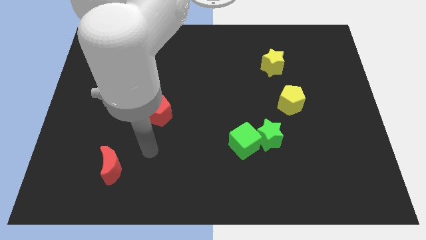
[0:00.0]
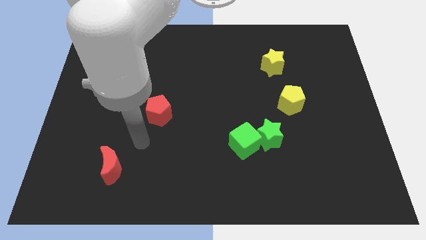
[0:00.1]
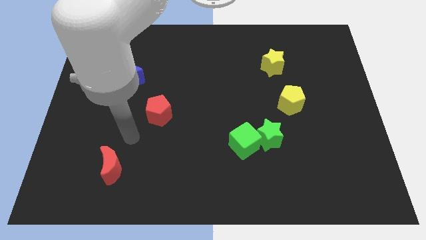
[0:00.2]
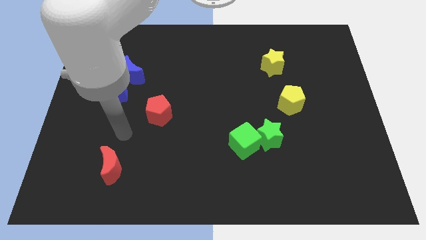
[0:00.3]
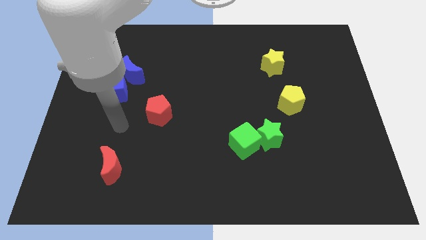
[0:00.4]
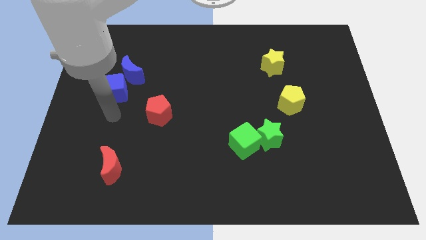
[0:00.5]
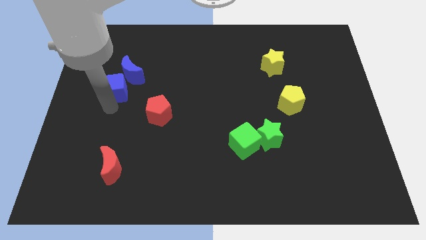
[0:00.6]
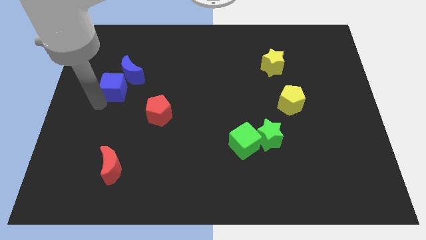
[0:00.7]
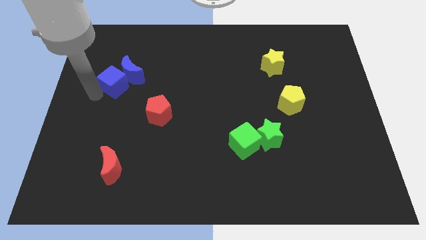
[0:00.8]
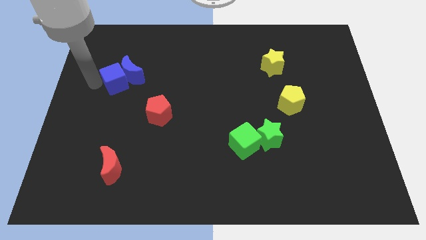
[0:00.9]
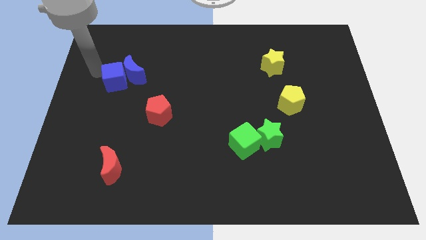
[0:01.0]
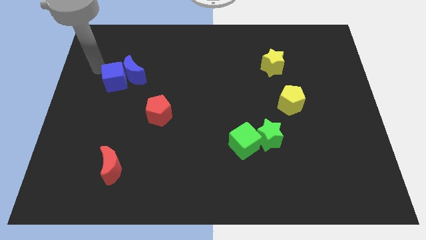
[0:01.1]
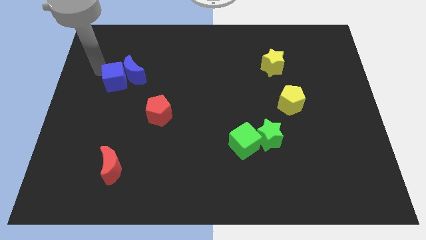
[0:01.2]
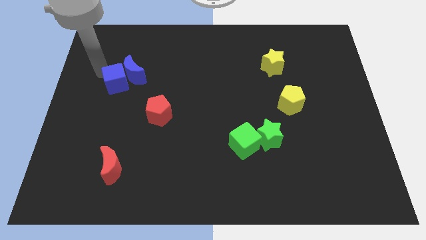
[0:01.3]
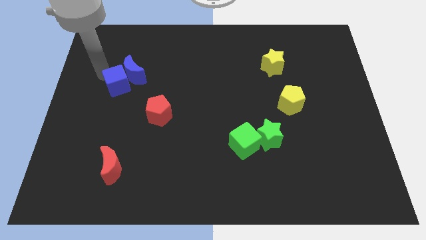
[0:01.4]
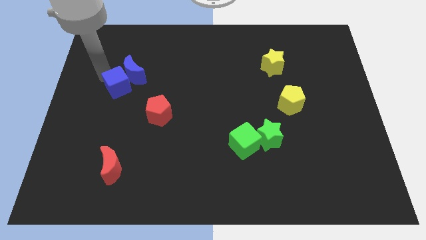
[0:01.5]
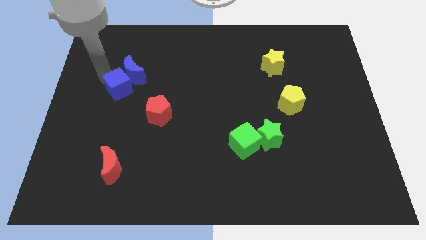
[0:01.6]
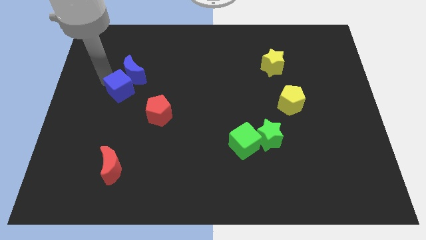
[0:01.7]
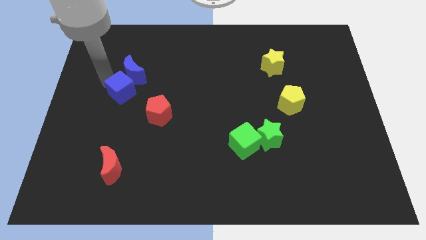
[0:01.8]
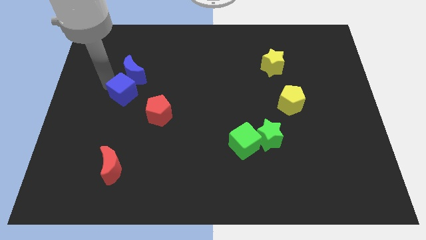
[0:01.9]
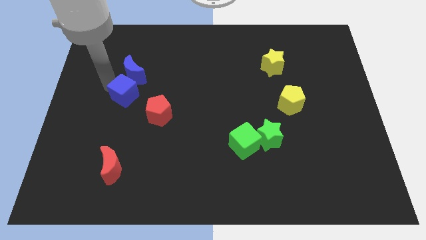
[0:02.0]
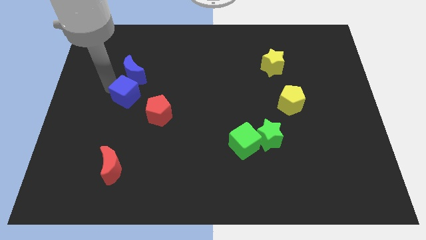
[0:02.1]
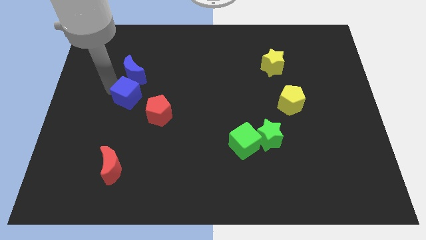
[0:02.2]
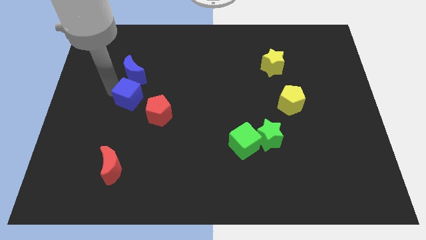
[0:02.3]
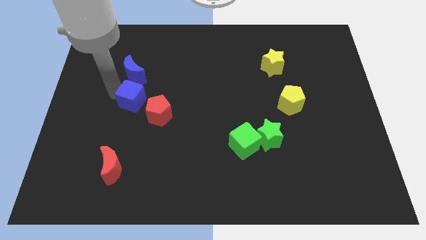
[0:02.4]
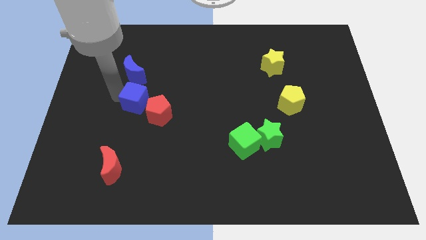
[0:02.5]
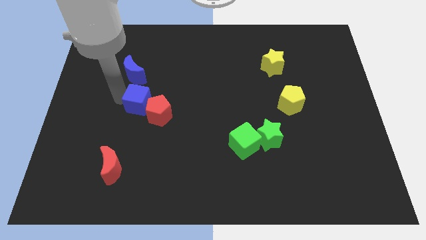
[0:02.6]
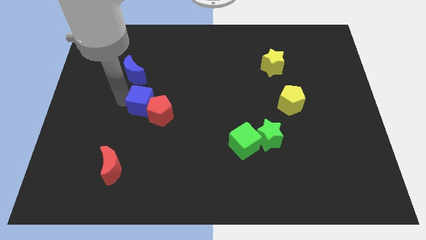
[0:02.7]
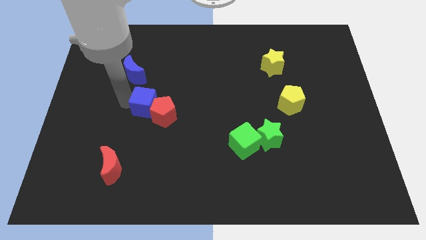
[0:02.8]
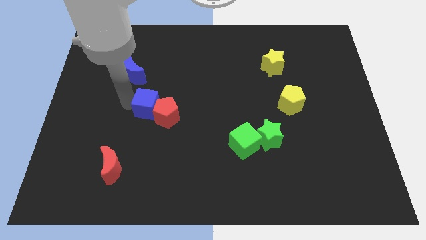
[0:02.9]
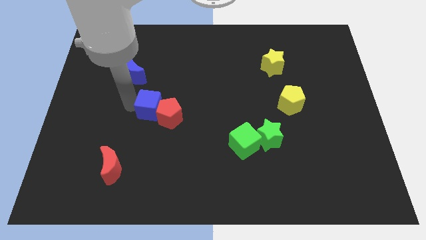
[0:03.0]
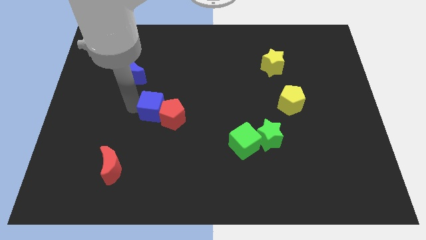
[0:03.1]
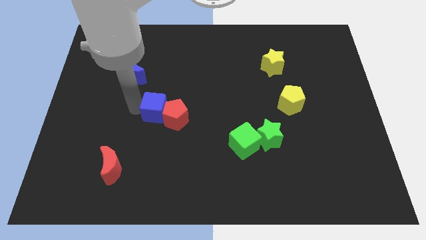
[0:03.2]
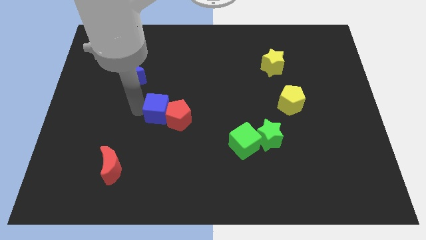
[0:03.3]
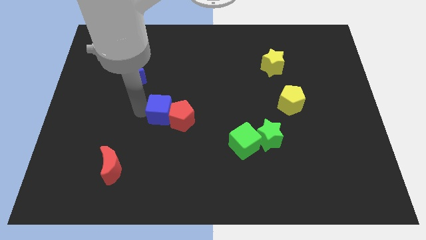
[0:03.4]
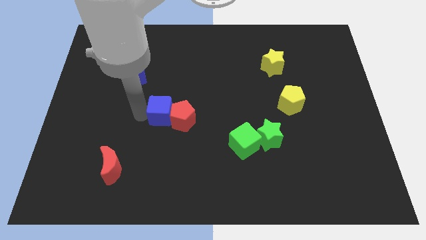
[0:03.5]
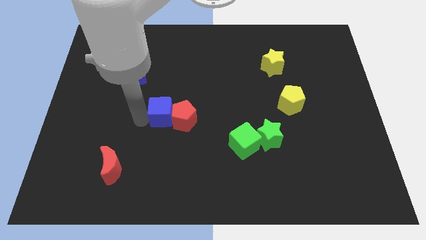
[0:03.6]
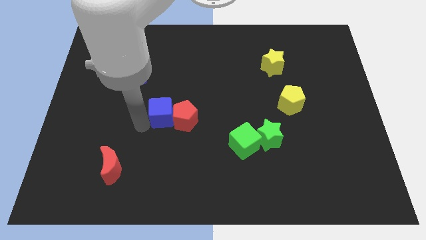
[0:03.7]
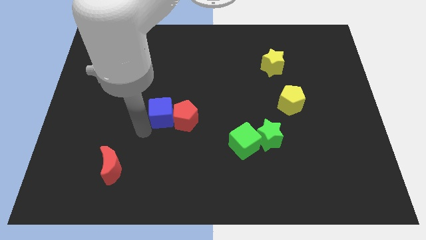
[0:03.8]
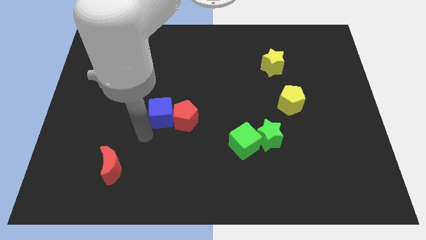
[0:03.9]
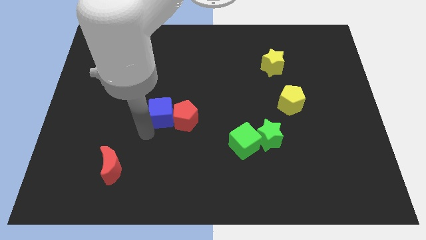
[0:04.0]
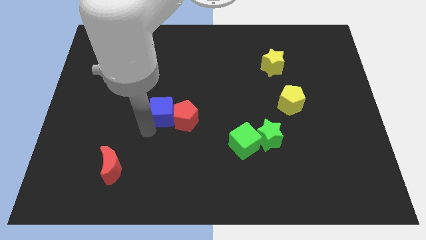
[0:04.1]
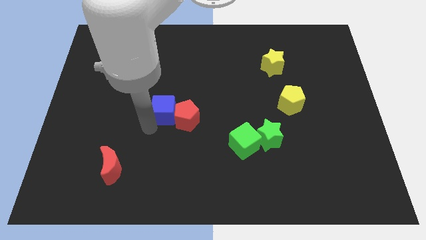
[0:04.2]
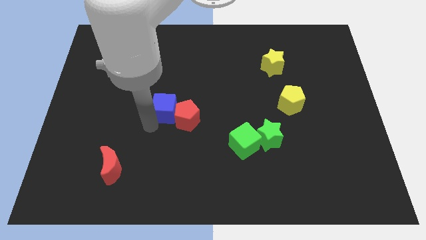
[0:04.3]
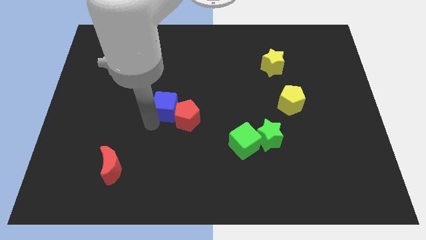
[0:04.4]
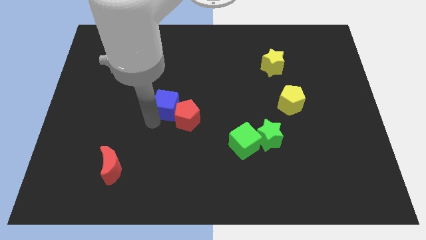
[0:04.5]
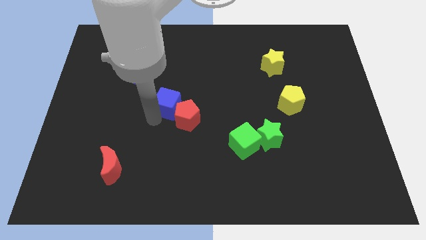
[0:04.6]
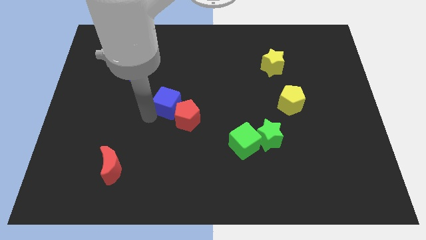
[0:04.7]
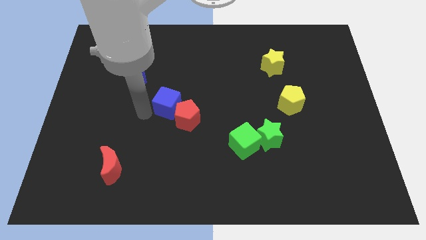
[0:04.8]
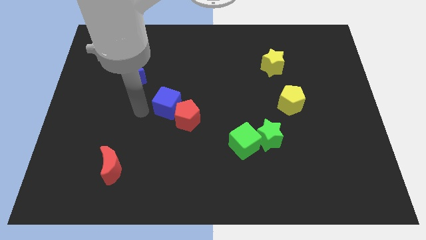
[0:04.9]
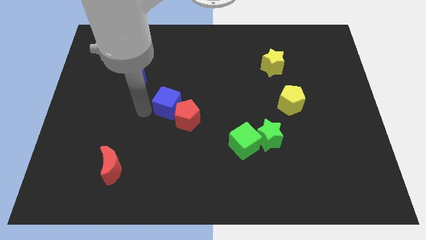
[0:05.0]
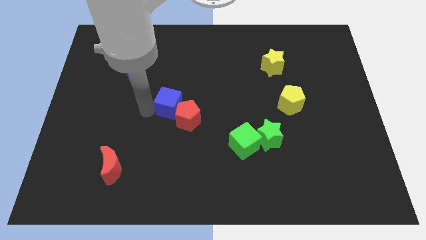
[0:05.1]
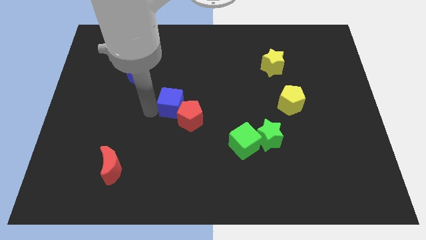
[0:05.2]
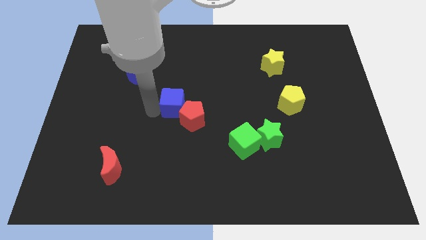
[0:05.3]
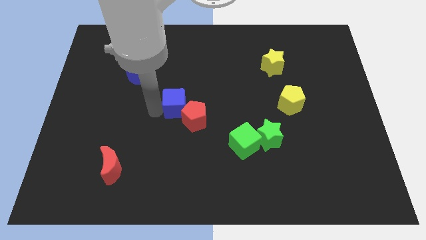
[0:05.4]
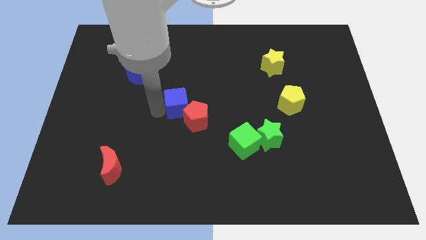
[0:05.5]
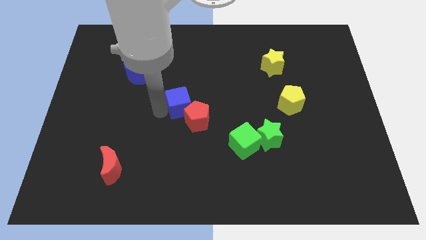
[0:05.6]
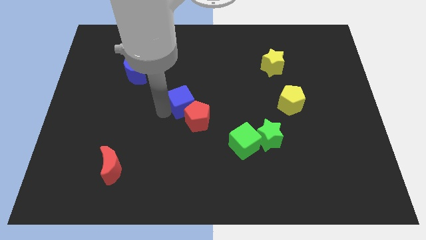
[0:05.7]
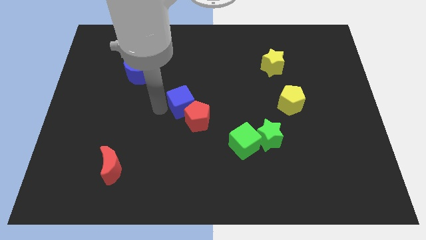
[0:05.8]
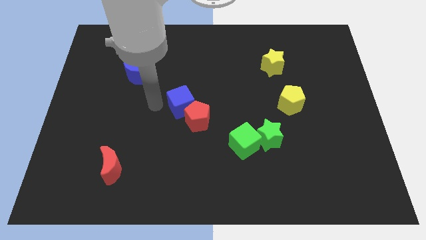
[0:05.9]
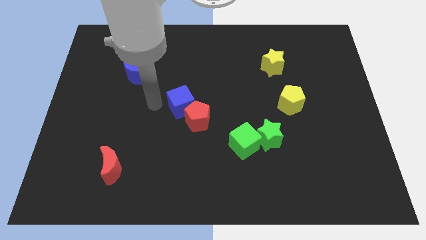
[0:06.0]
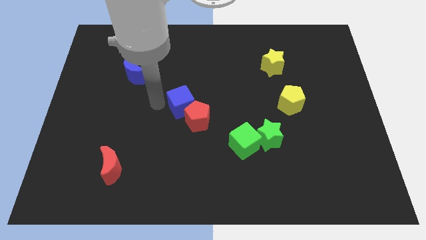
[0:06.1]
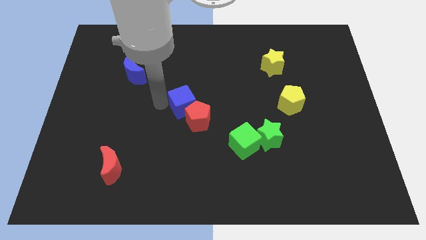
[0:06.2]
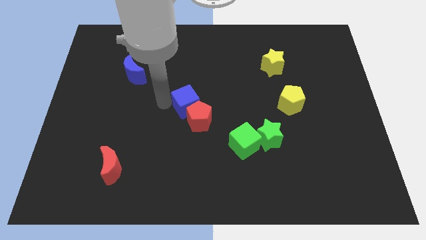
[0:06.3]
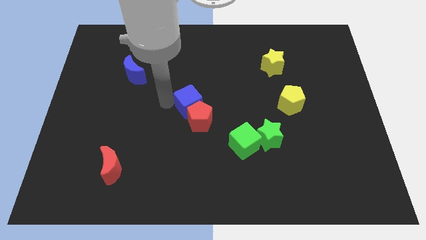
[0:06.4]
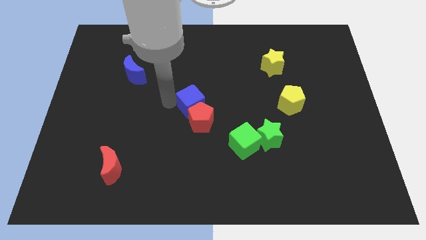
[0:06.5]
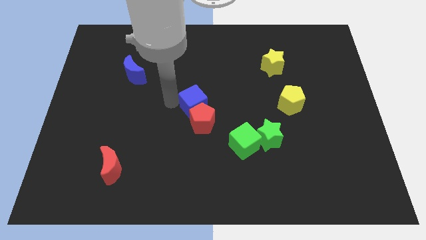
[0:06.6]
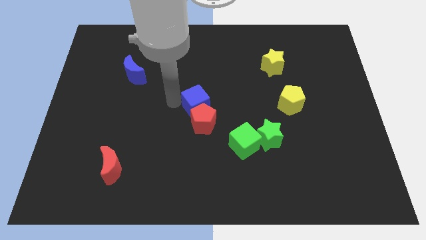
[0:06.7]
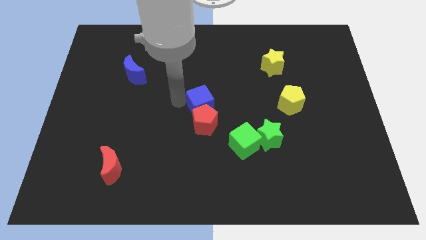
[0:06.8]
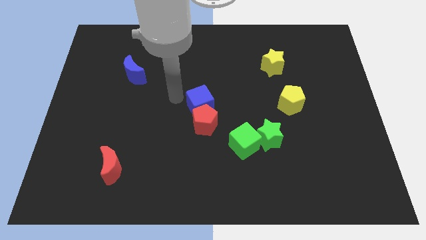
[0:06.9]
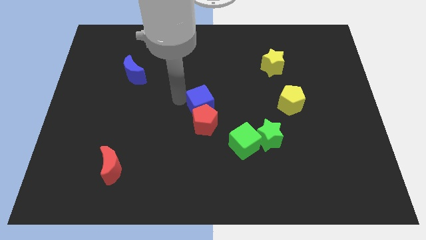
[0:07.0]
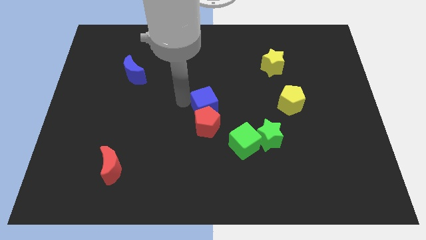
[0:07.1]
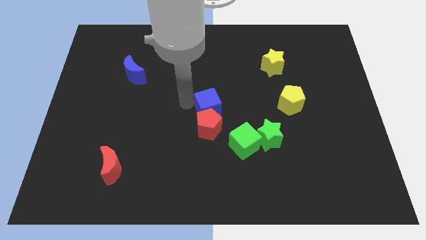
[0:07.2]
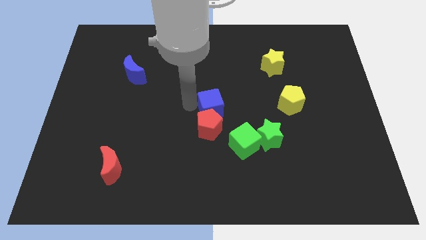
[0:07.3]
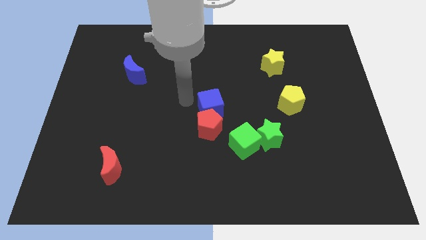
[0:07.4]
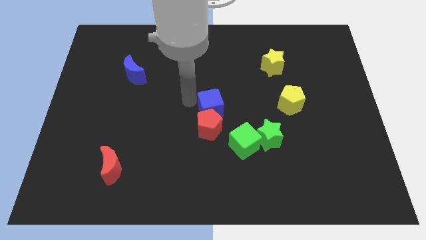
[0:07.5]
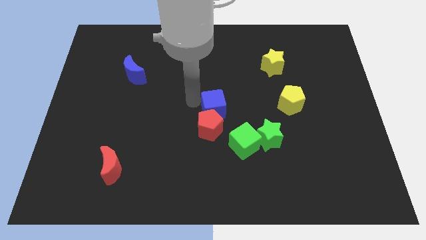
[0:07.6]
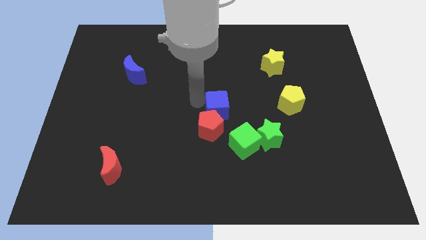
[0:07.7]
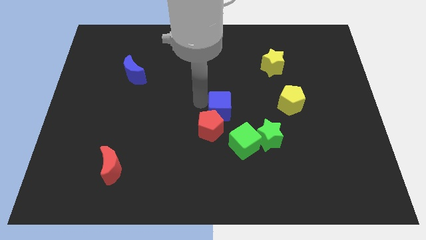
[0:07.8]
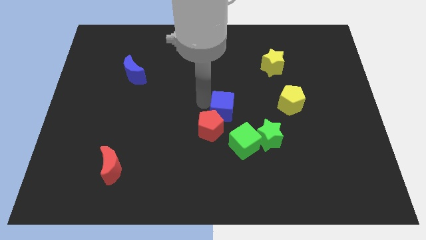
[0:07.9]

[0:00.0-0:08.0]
move the blue cube to the top left of the green star
